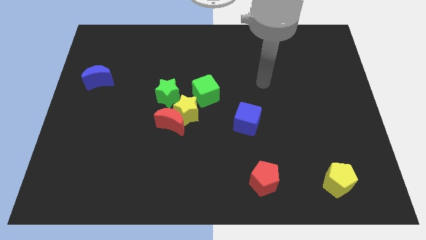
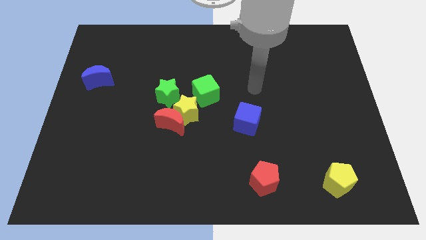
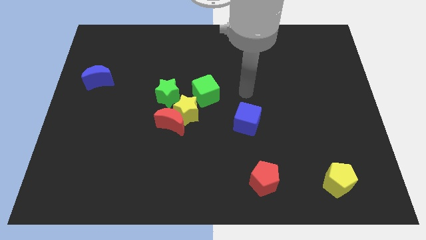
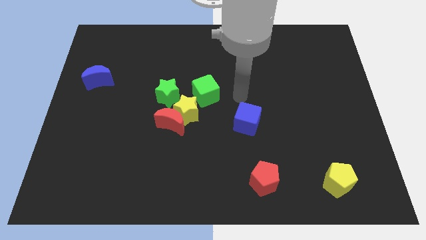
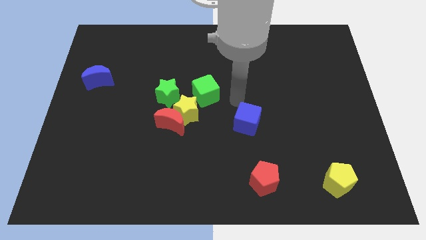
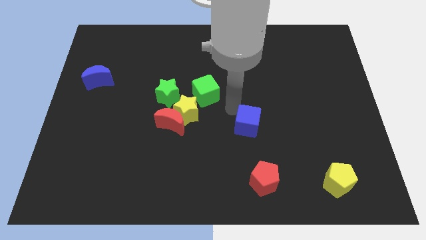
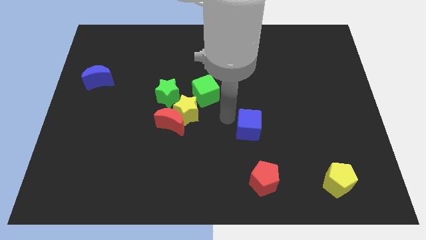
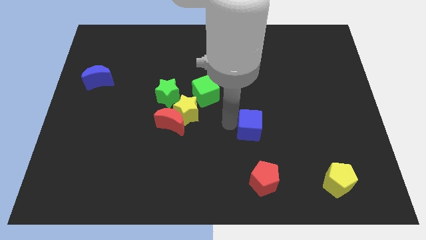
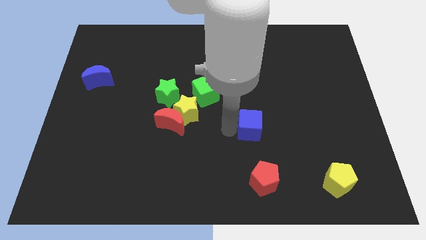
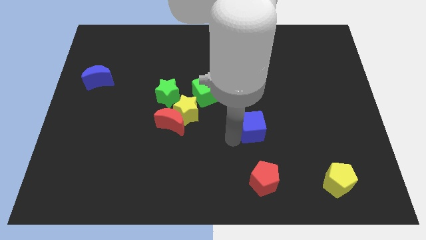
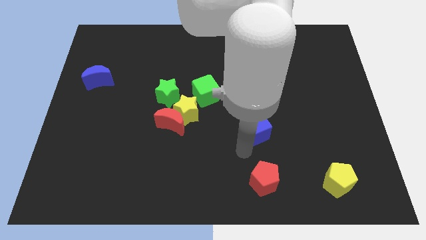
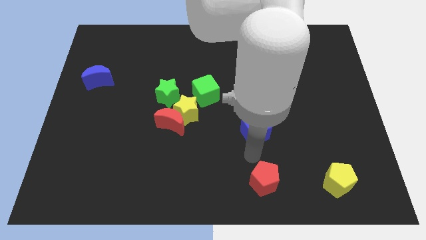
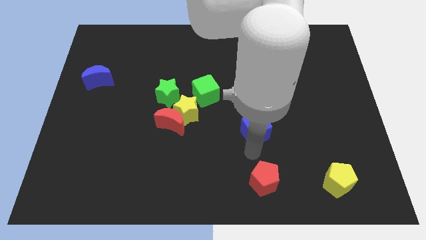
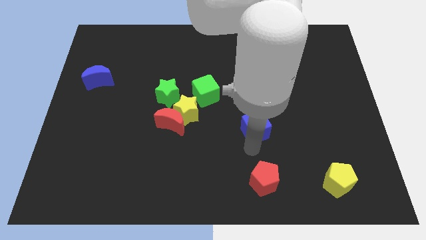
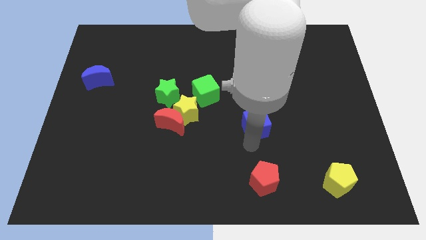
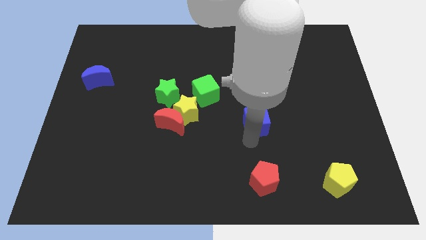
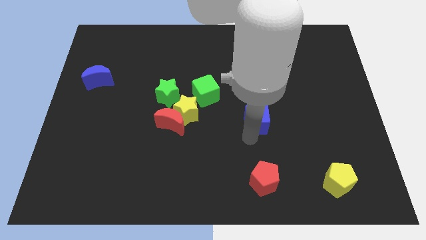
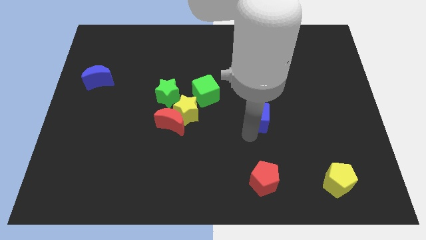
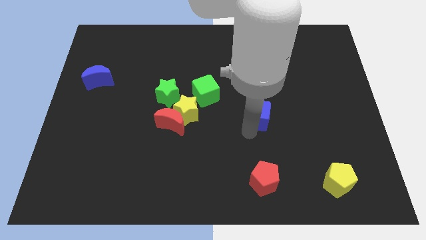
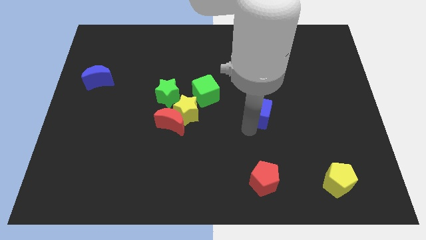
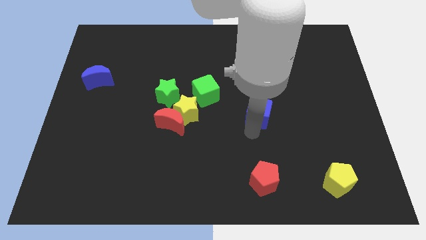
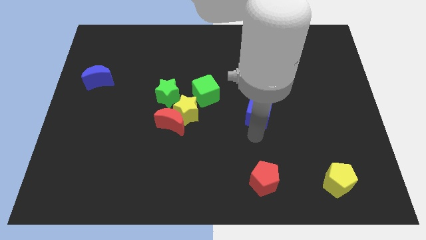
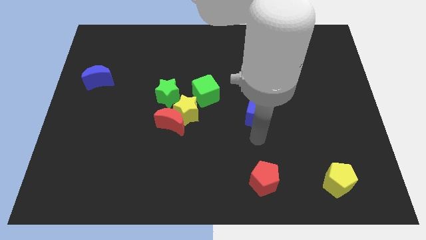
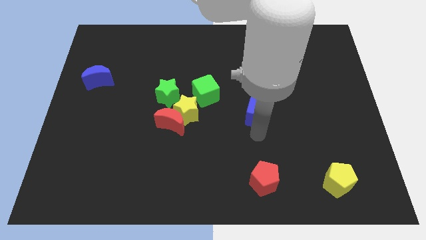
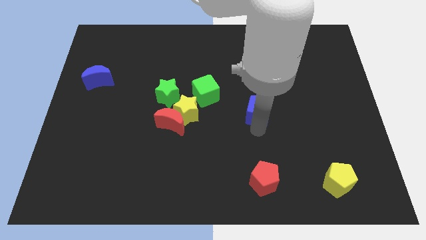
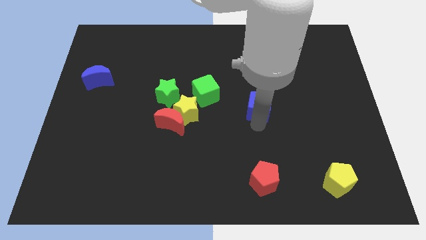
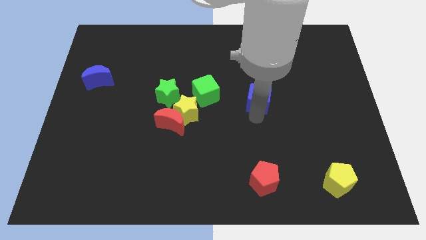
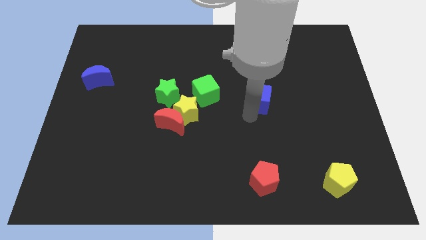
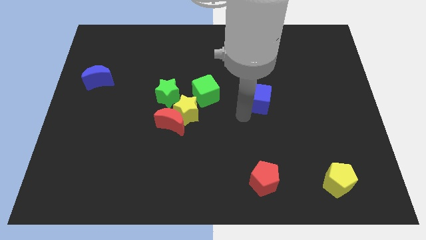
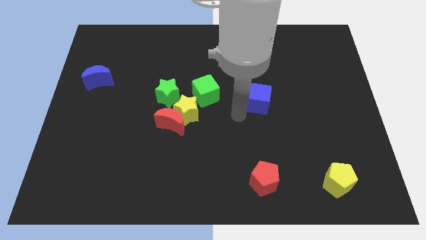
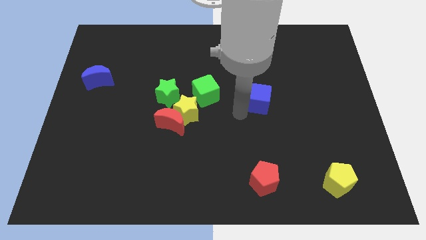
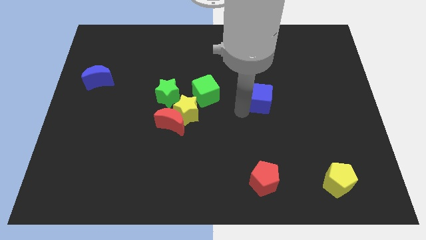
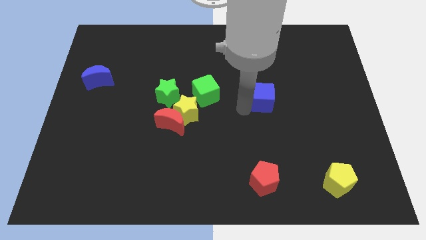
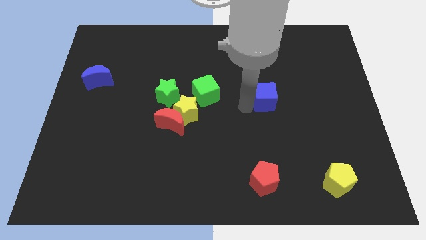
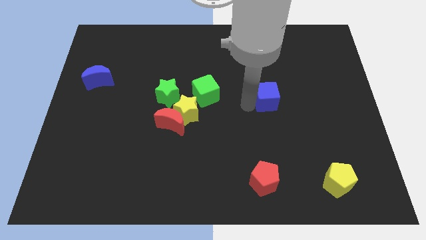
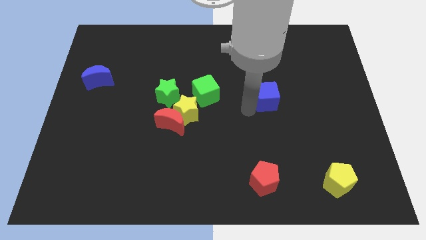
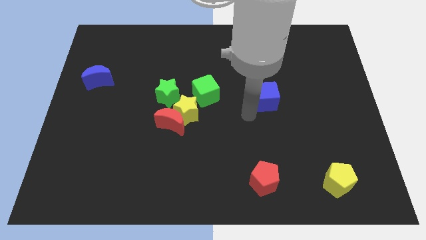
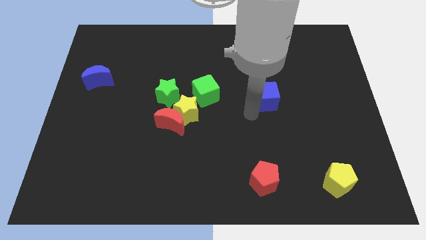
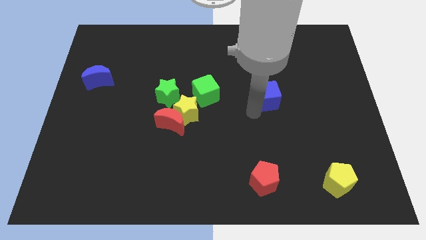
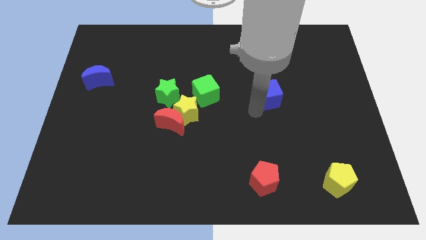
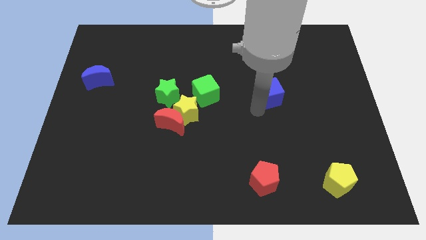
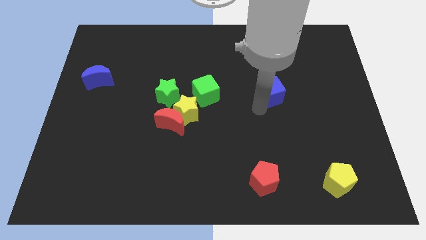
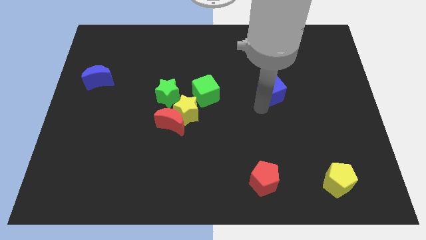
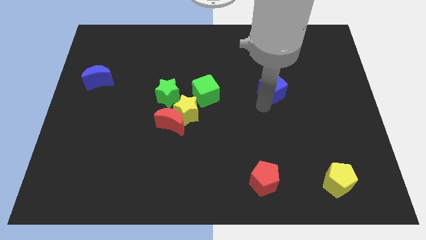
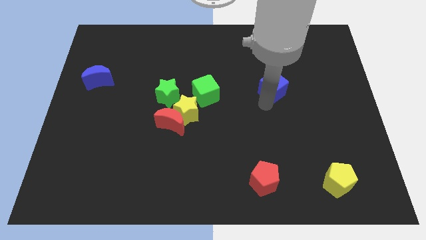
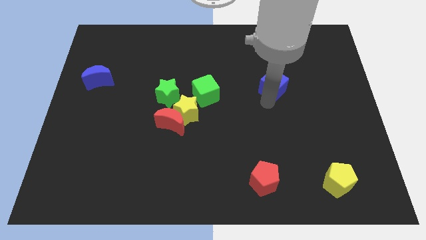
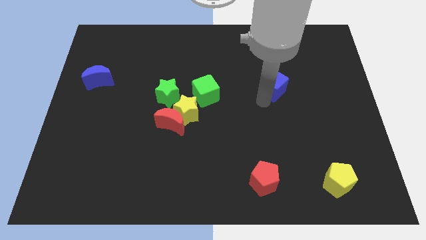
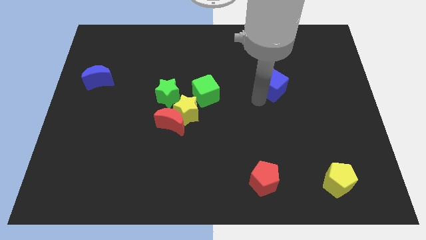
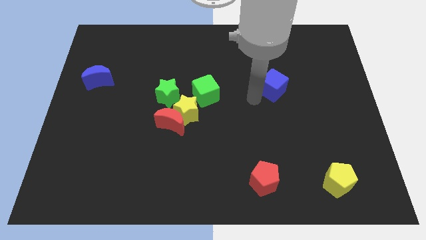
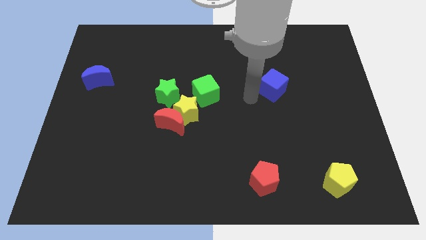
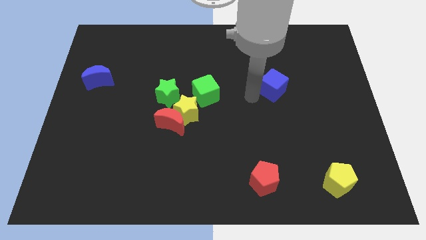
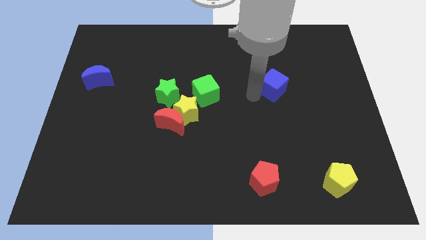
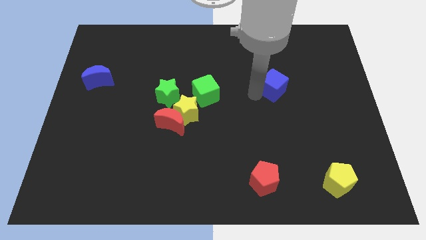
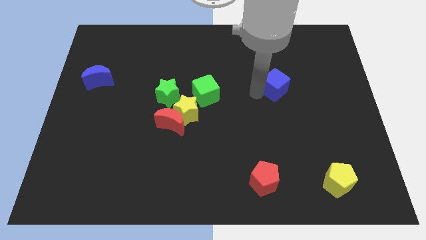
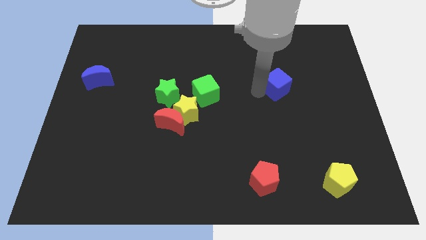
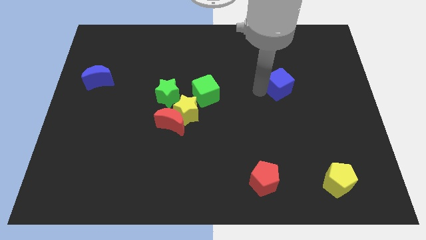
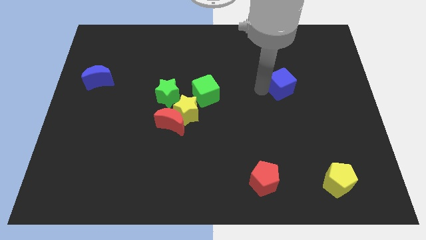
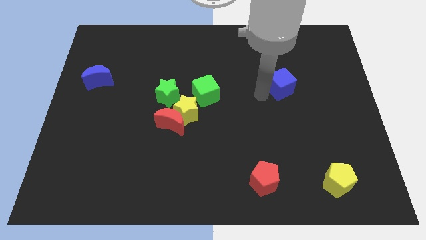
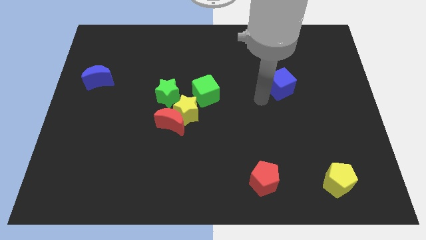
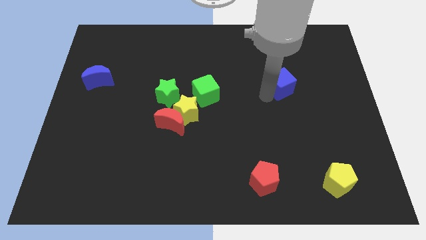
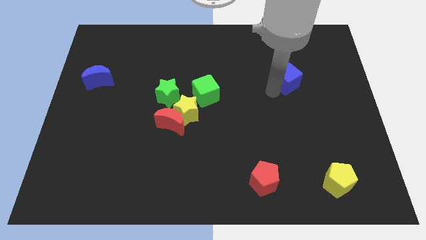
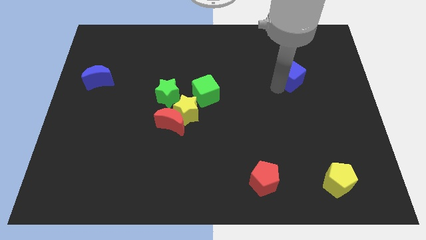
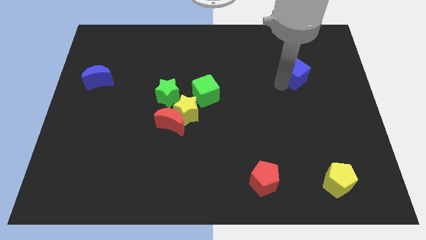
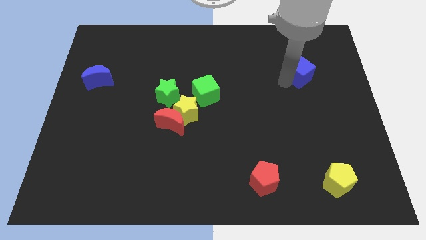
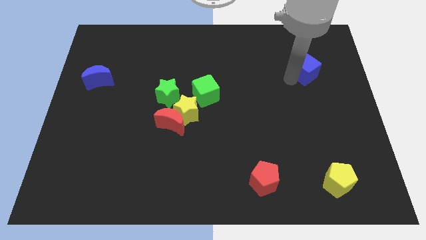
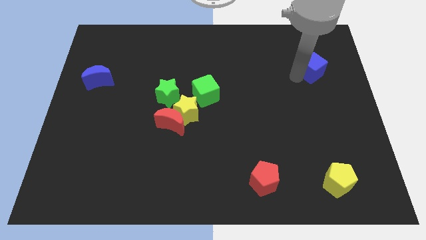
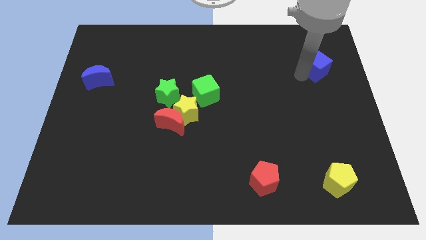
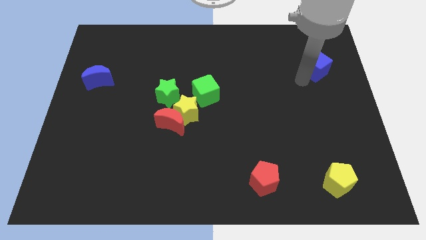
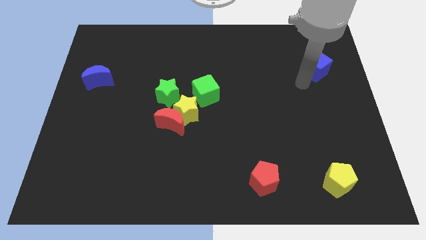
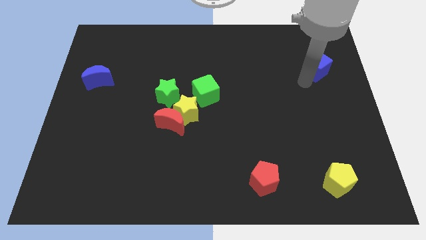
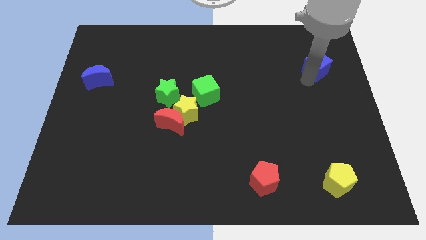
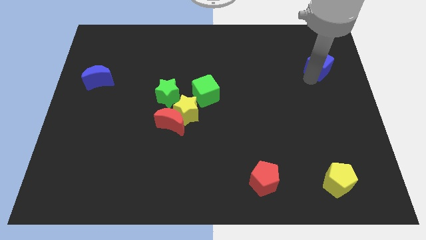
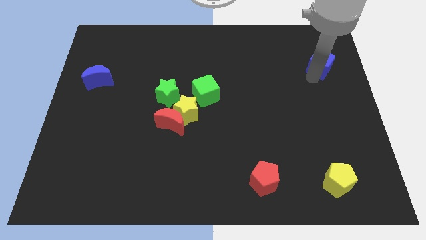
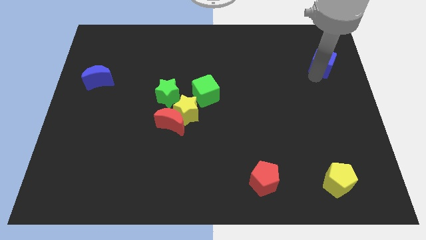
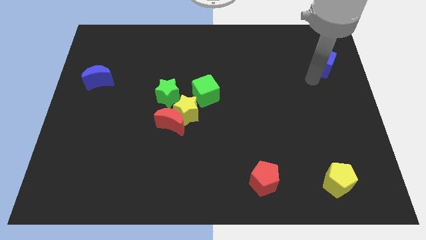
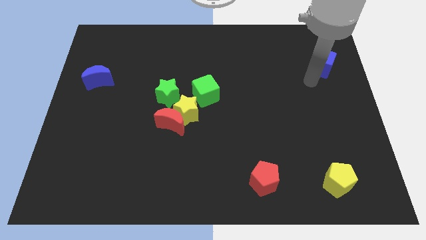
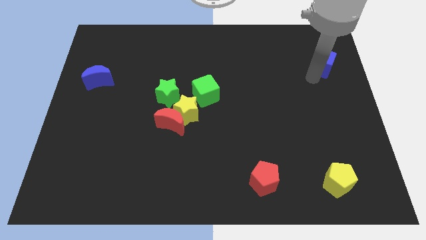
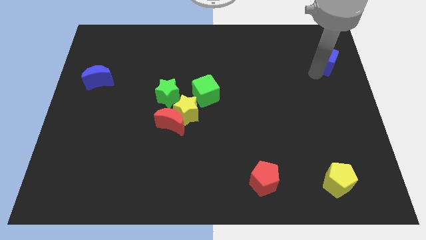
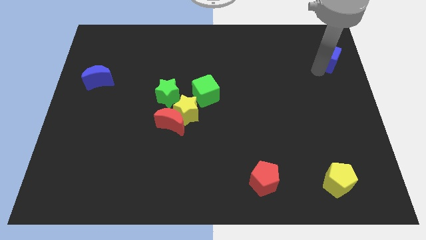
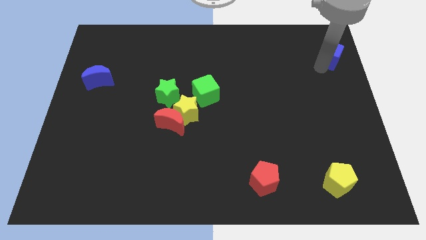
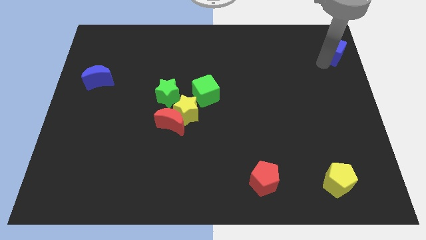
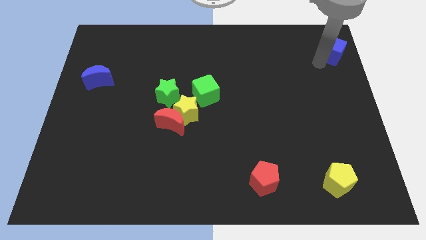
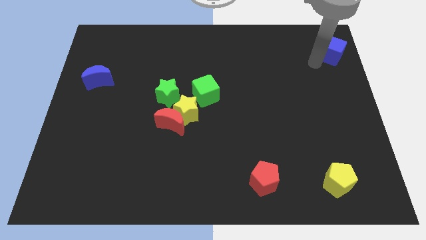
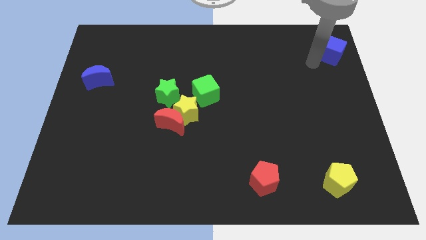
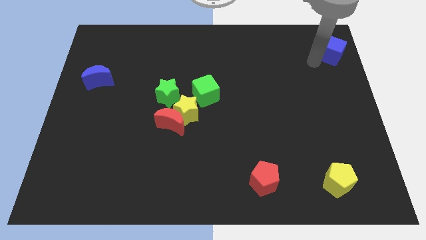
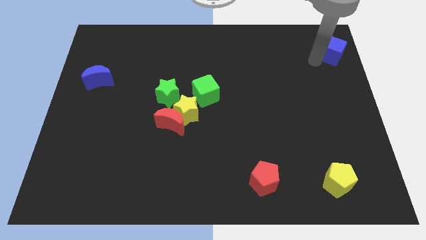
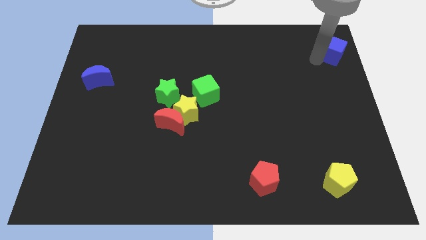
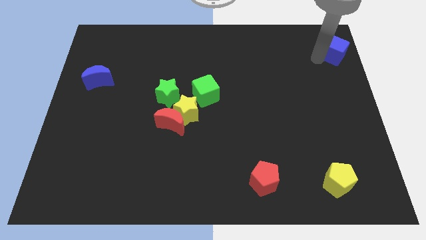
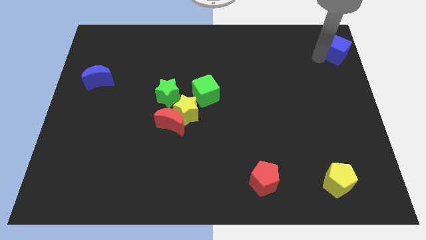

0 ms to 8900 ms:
push the blue cube to the top right of the board
